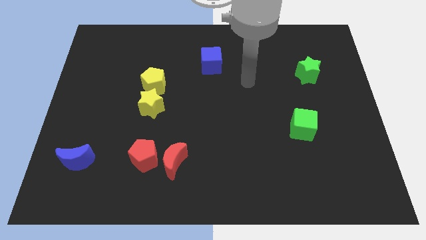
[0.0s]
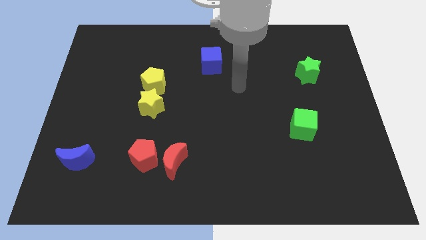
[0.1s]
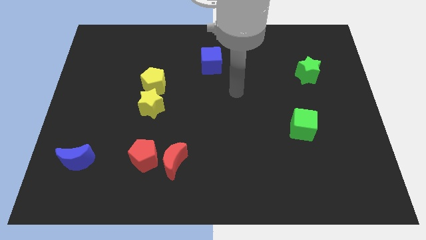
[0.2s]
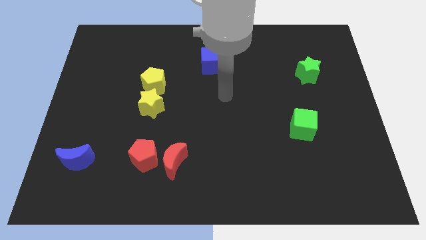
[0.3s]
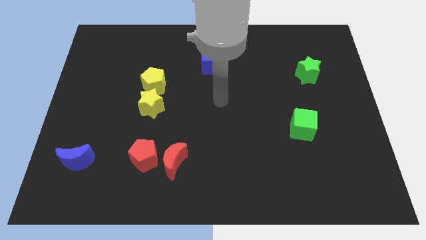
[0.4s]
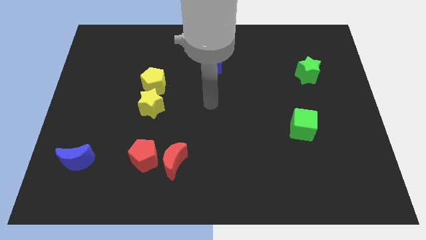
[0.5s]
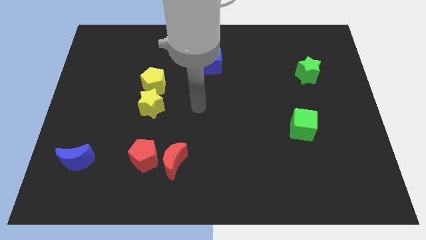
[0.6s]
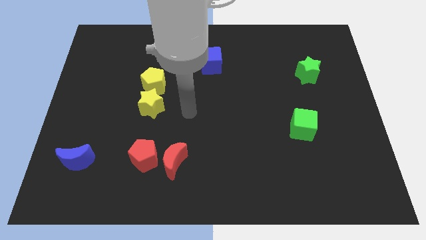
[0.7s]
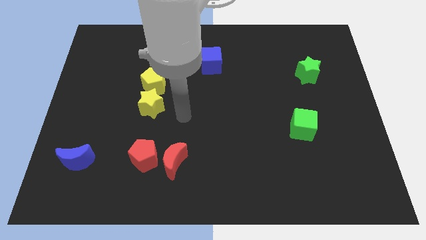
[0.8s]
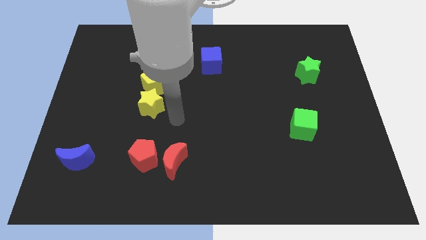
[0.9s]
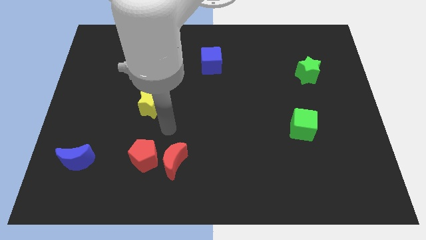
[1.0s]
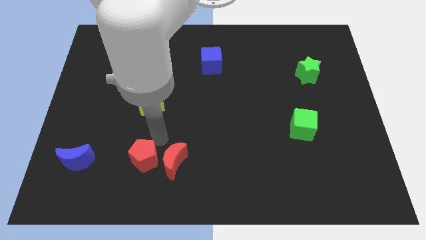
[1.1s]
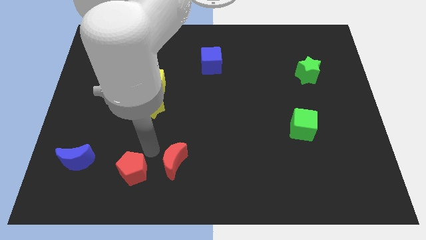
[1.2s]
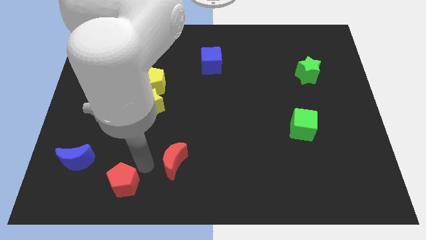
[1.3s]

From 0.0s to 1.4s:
pull the red moon apart from the red pentagon

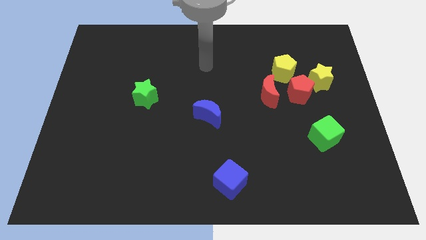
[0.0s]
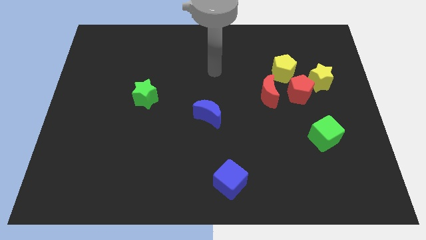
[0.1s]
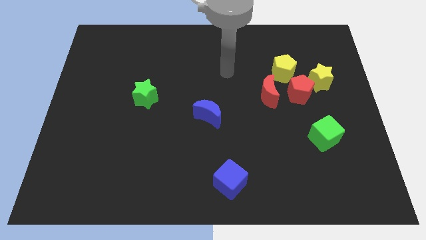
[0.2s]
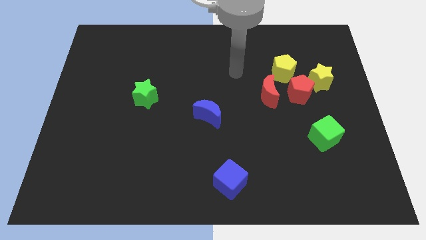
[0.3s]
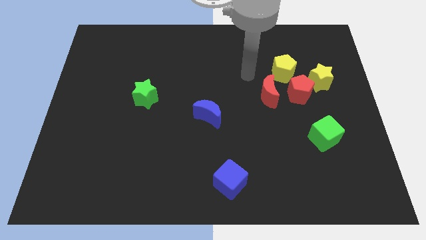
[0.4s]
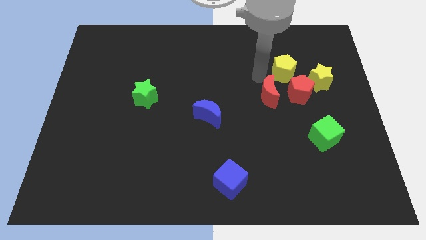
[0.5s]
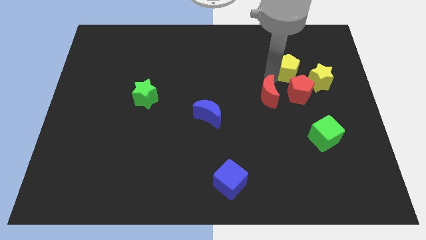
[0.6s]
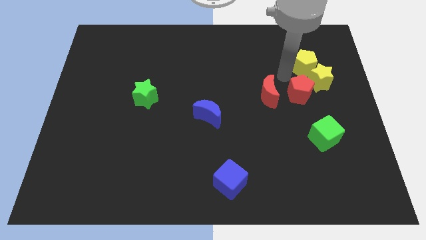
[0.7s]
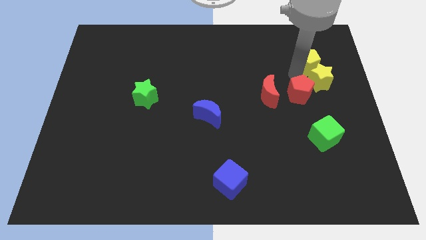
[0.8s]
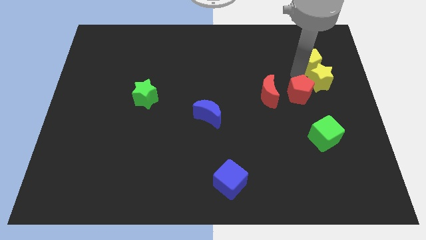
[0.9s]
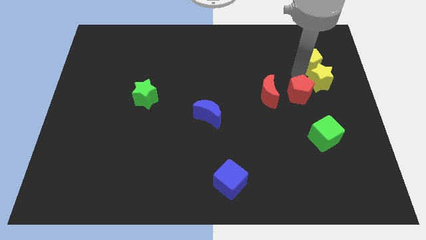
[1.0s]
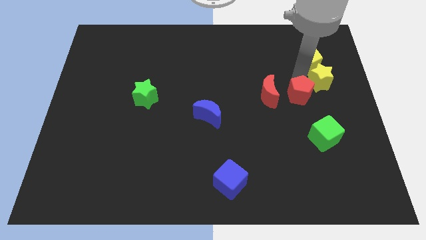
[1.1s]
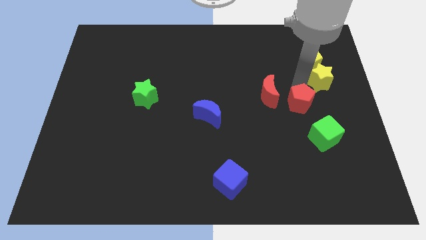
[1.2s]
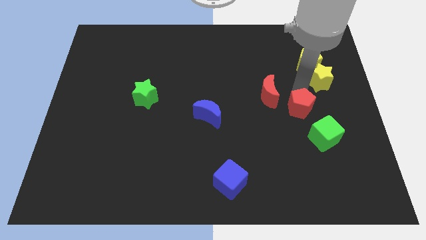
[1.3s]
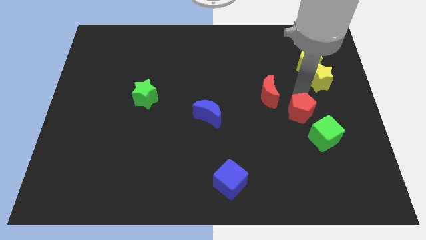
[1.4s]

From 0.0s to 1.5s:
separate the red pentagon from the group of blocks

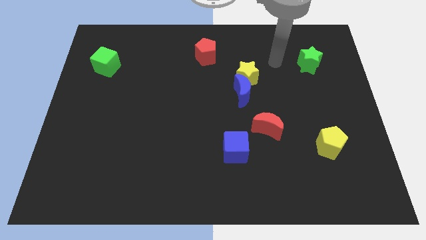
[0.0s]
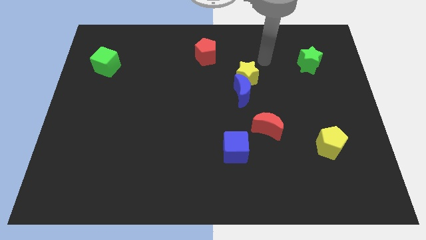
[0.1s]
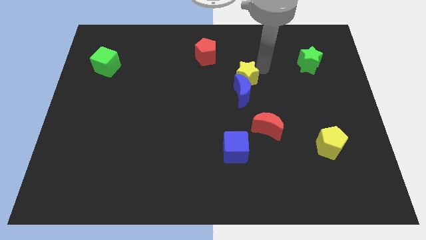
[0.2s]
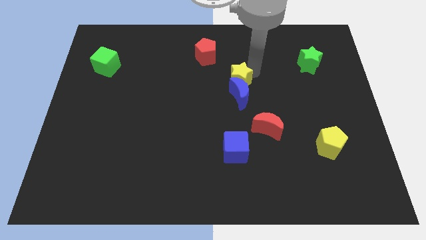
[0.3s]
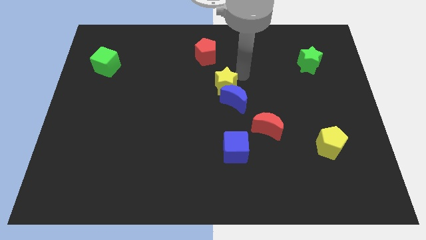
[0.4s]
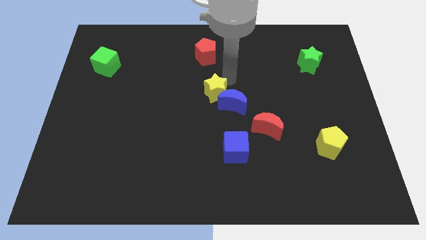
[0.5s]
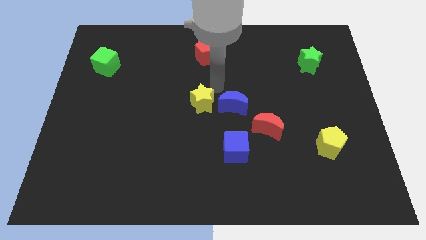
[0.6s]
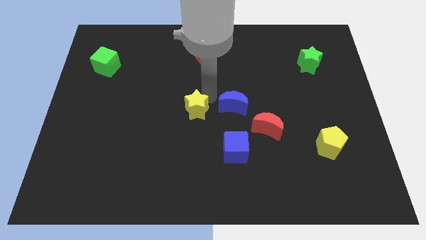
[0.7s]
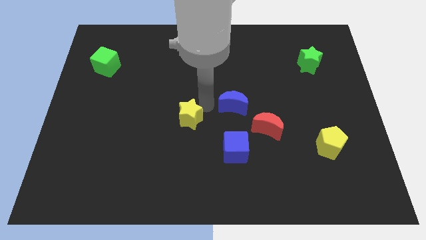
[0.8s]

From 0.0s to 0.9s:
pull the blue moon apart from the yellow star

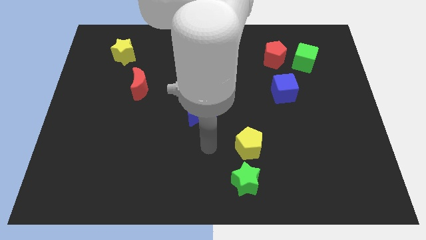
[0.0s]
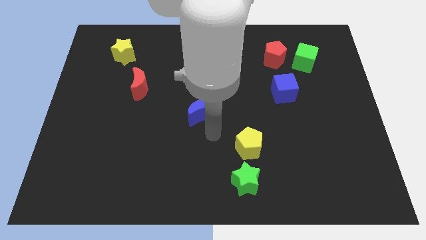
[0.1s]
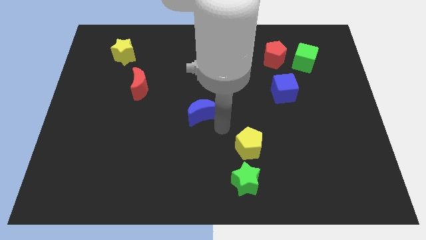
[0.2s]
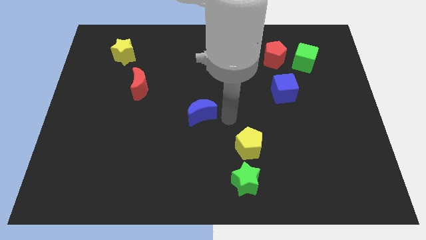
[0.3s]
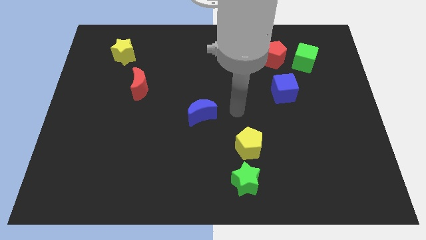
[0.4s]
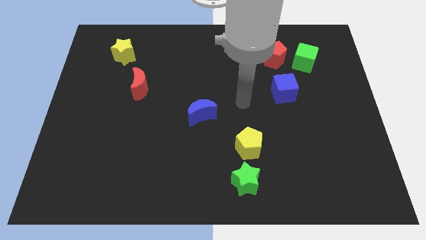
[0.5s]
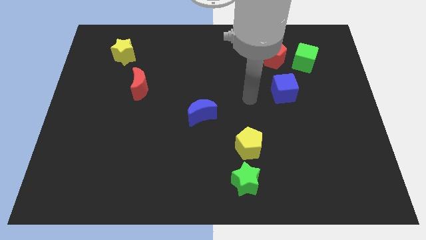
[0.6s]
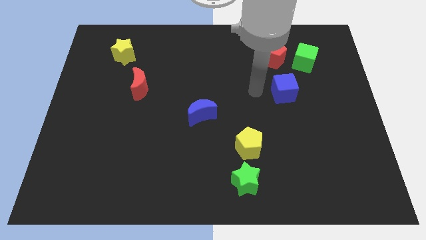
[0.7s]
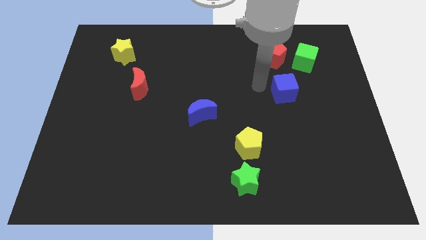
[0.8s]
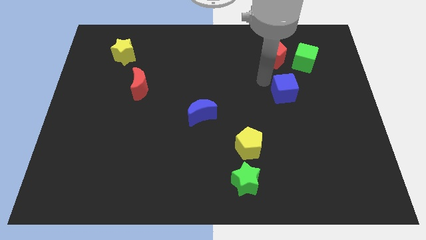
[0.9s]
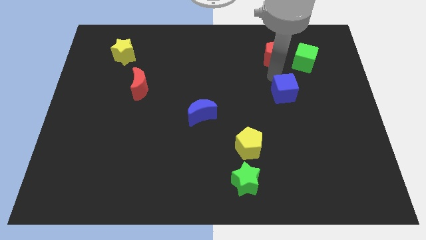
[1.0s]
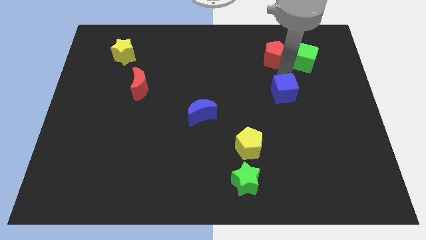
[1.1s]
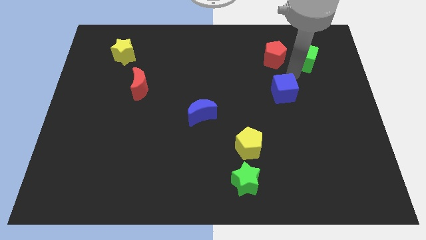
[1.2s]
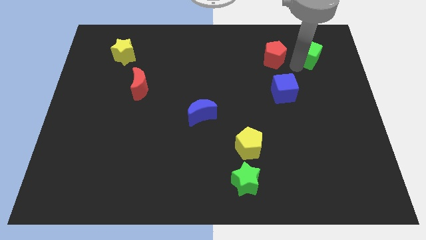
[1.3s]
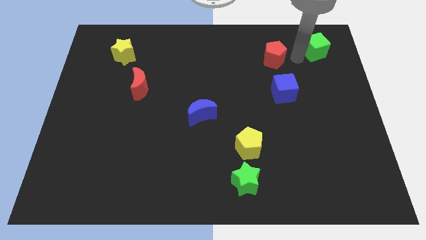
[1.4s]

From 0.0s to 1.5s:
move the red pentagon away from the green cube

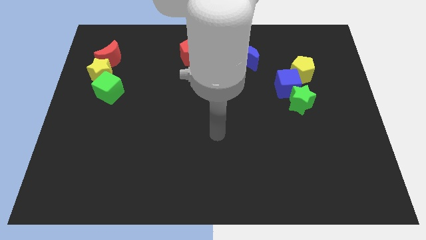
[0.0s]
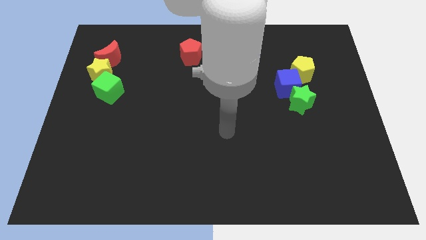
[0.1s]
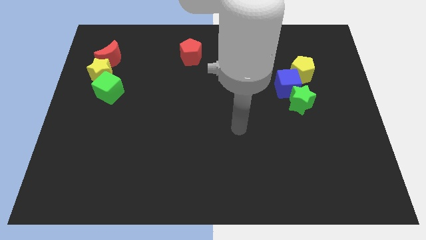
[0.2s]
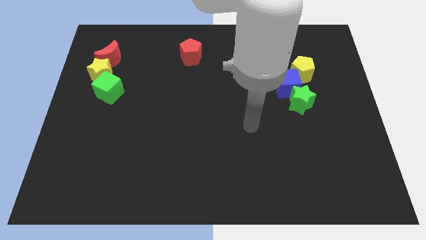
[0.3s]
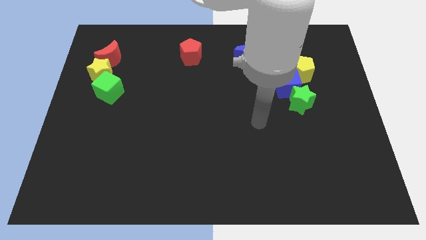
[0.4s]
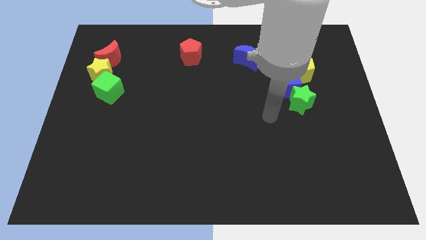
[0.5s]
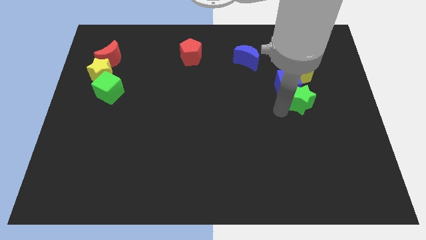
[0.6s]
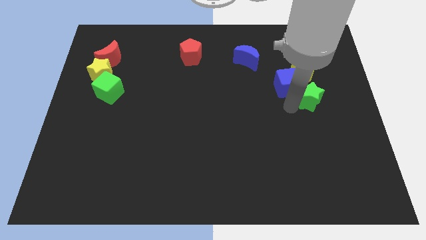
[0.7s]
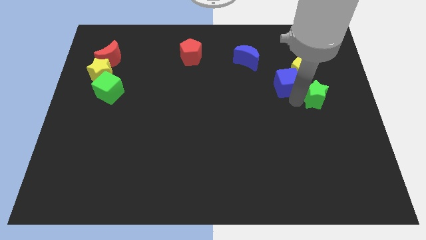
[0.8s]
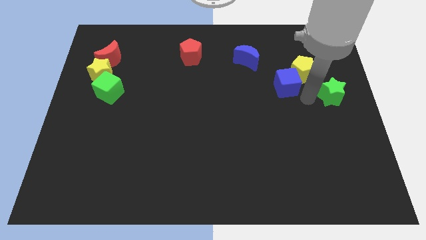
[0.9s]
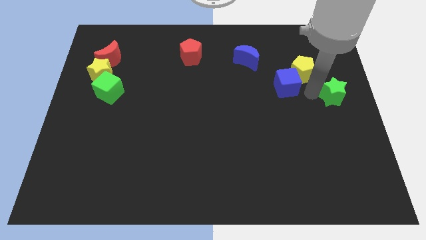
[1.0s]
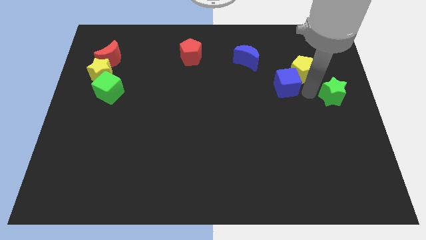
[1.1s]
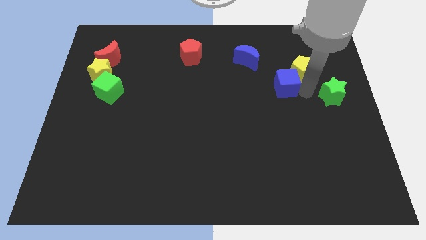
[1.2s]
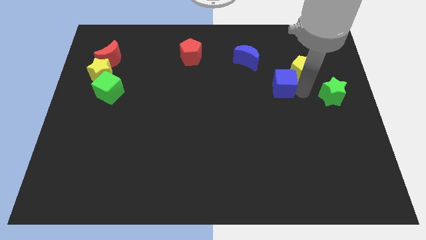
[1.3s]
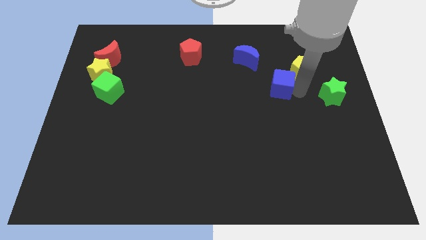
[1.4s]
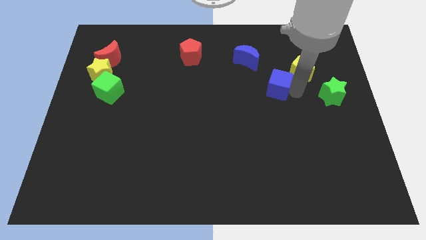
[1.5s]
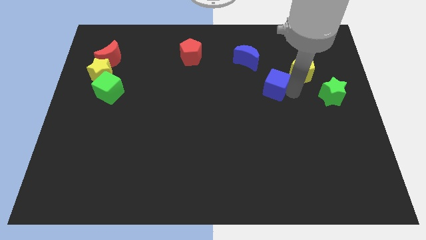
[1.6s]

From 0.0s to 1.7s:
separate the blue cube from the green star and yellow pentagon

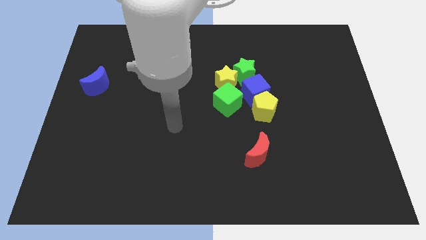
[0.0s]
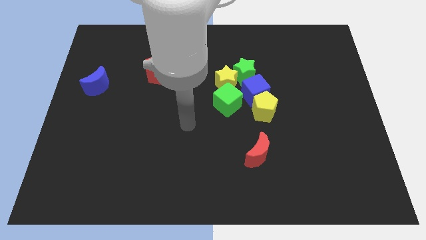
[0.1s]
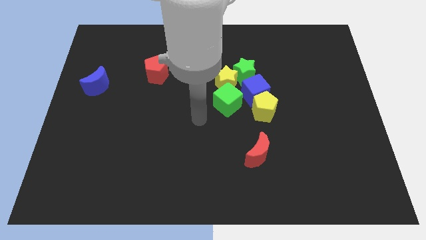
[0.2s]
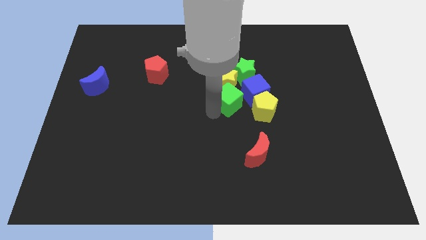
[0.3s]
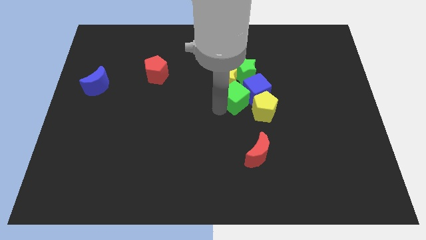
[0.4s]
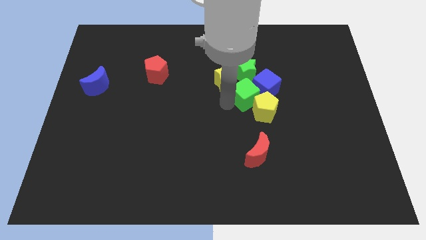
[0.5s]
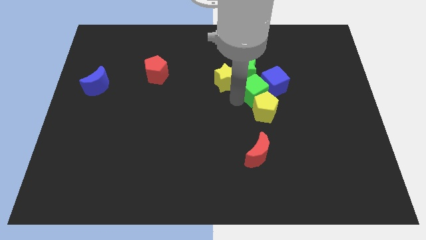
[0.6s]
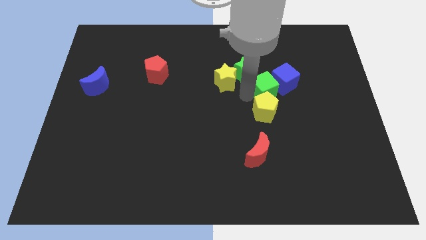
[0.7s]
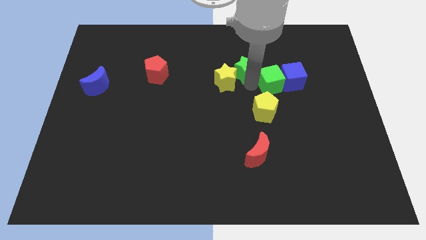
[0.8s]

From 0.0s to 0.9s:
move the yellow star away from the clump

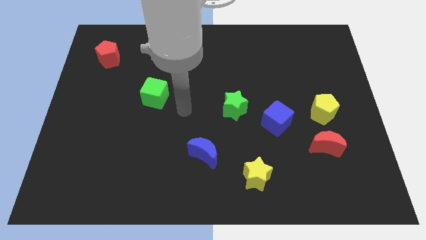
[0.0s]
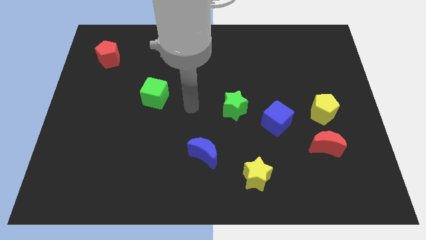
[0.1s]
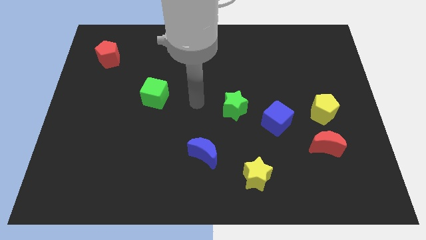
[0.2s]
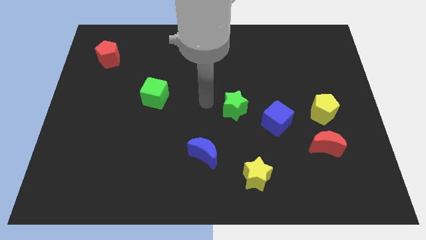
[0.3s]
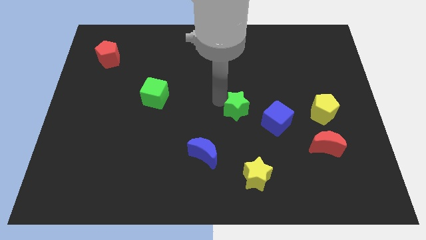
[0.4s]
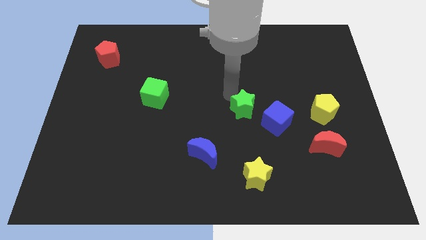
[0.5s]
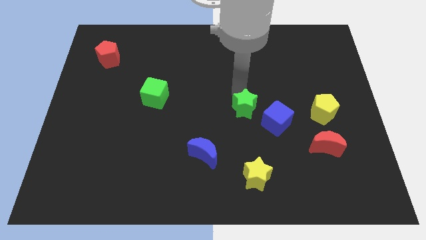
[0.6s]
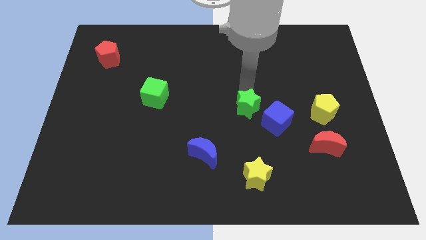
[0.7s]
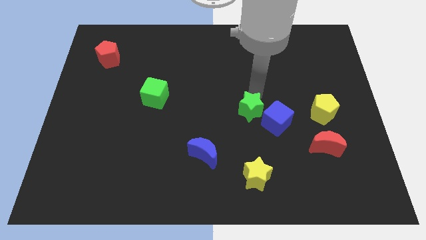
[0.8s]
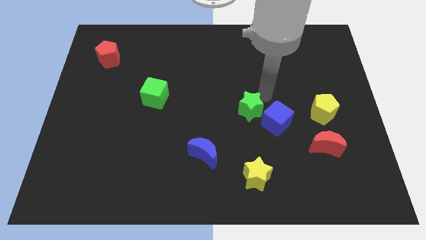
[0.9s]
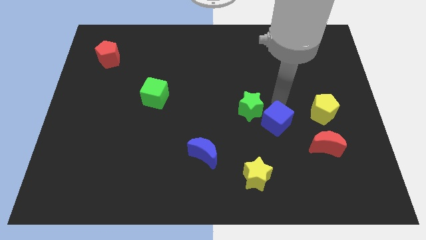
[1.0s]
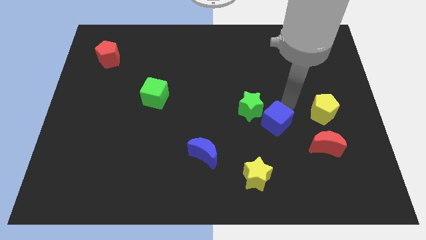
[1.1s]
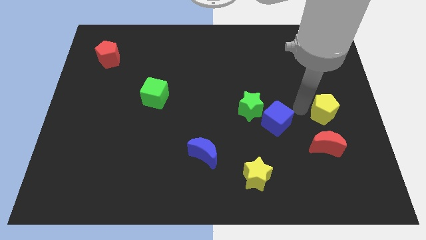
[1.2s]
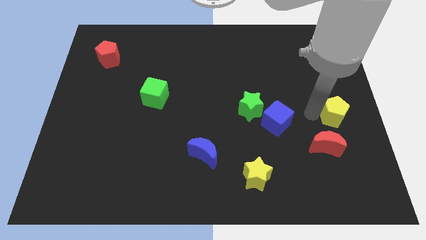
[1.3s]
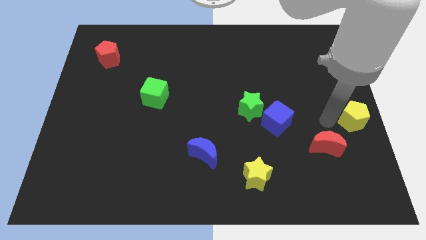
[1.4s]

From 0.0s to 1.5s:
separate the red moon from the yellow pentagon
